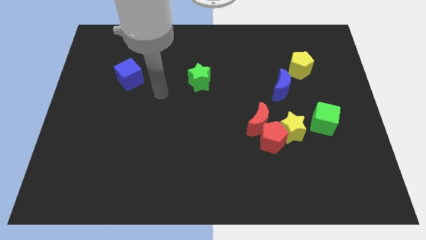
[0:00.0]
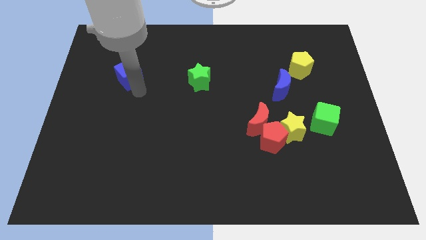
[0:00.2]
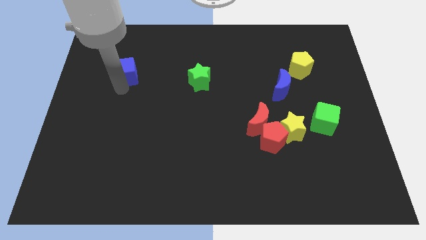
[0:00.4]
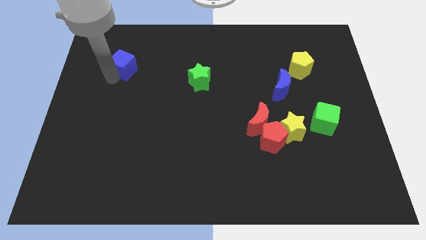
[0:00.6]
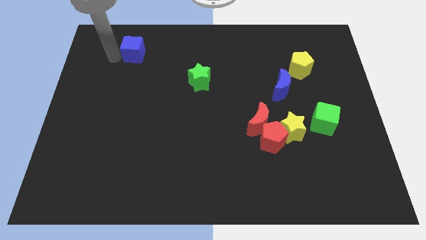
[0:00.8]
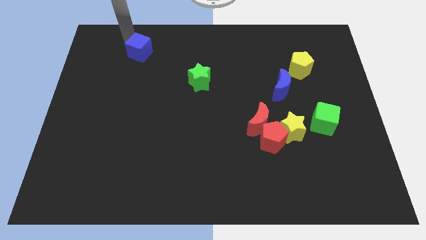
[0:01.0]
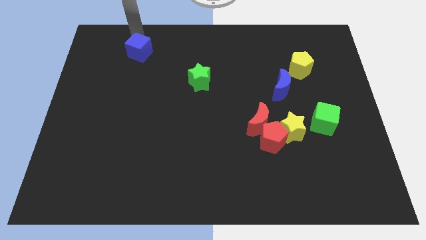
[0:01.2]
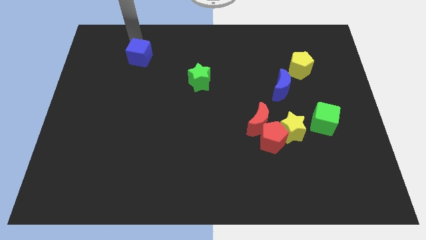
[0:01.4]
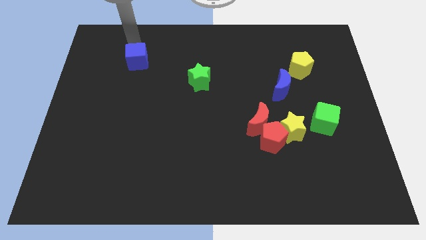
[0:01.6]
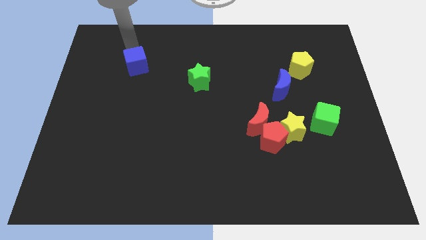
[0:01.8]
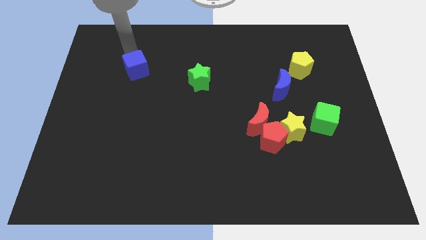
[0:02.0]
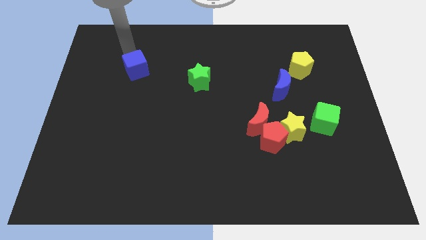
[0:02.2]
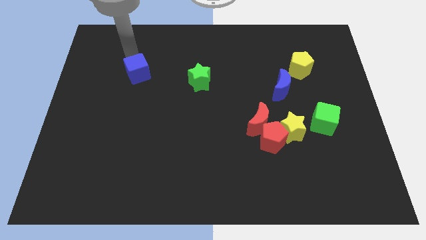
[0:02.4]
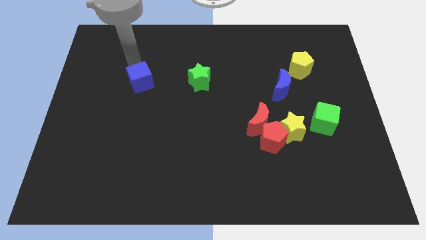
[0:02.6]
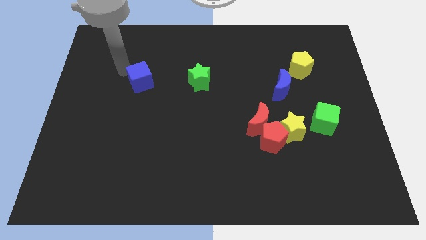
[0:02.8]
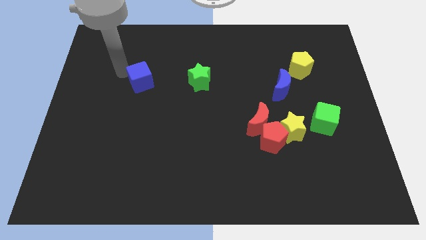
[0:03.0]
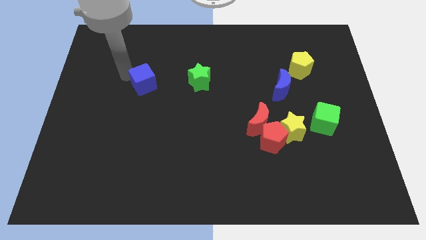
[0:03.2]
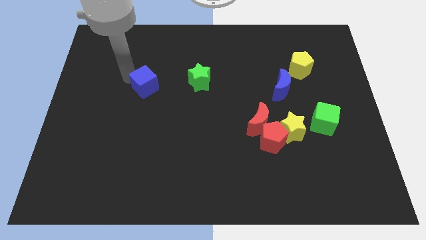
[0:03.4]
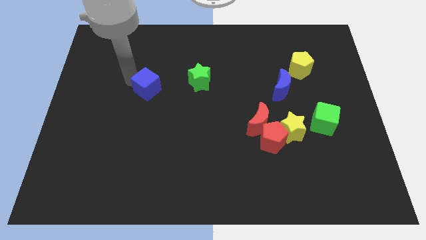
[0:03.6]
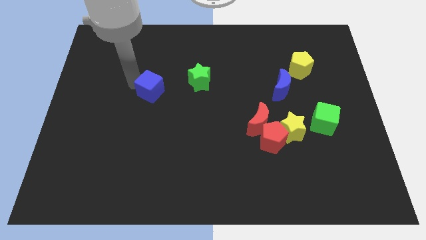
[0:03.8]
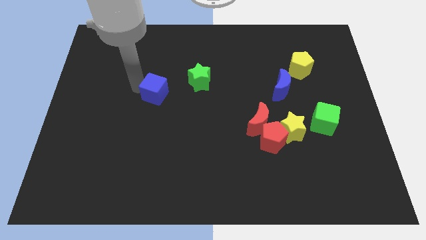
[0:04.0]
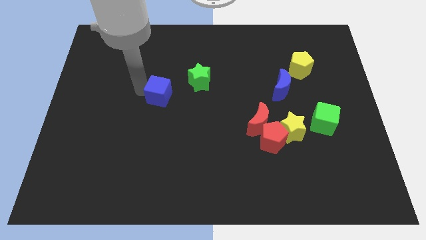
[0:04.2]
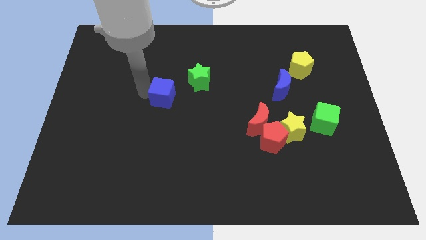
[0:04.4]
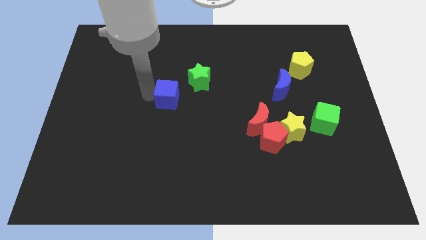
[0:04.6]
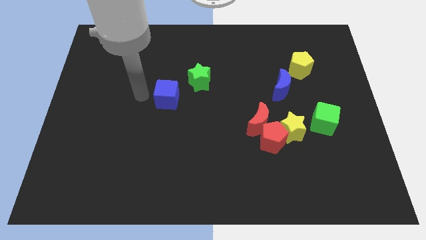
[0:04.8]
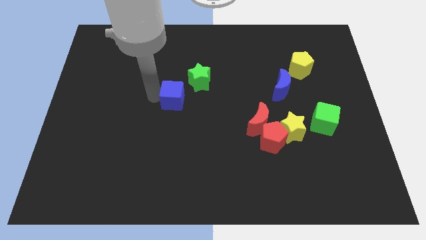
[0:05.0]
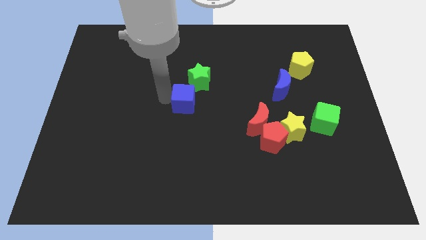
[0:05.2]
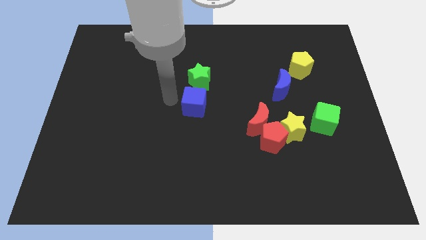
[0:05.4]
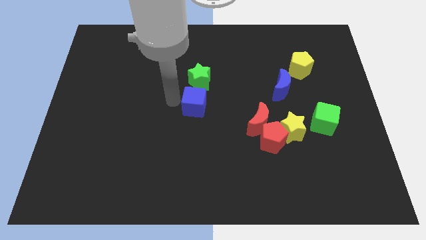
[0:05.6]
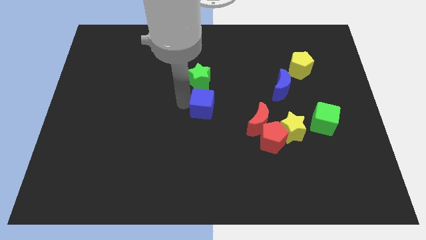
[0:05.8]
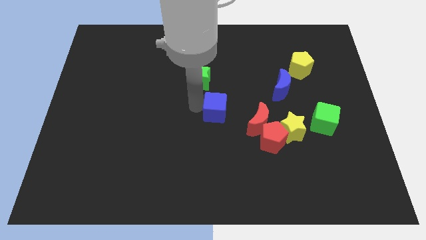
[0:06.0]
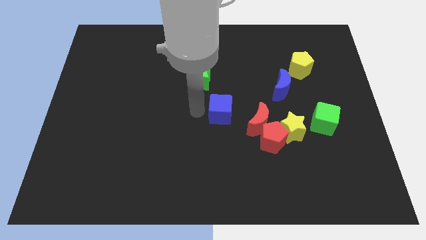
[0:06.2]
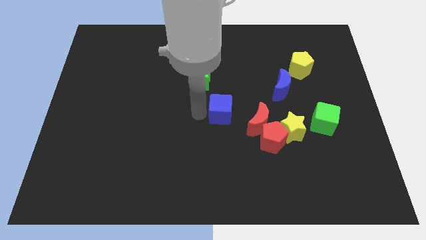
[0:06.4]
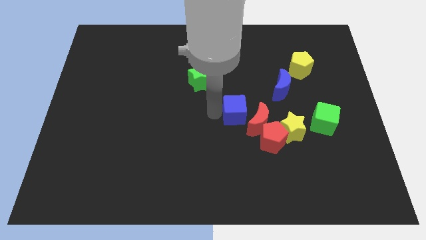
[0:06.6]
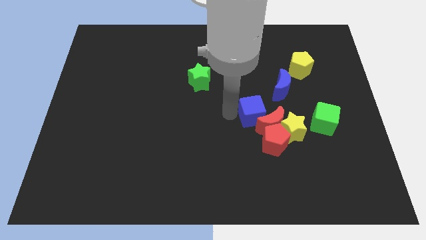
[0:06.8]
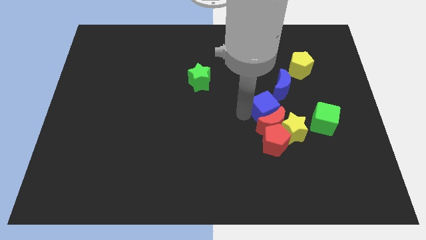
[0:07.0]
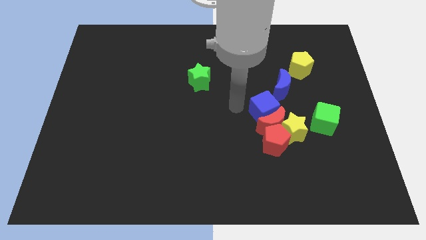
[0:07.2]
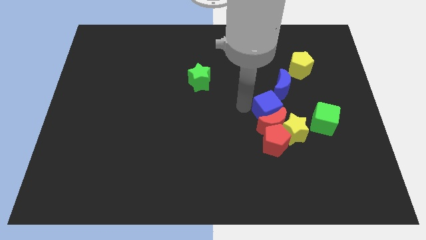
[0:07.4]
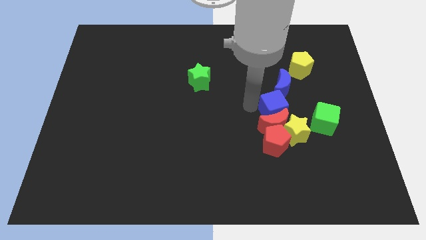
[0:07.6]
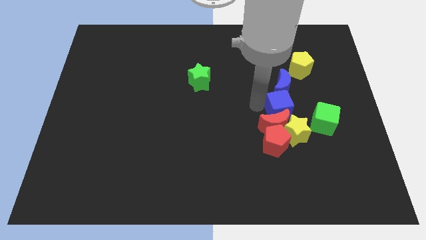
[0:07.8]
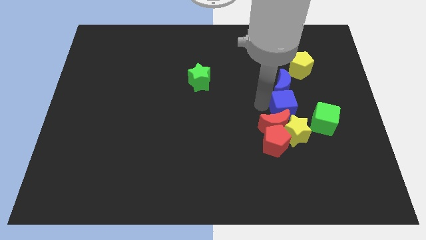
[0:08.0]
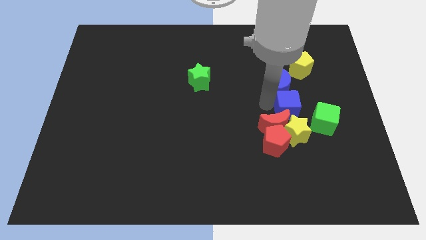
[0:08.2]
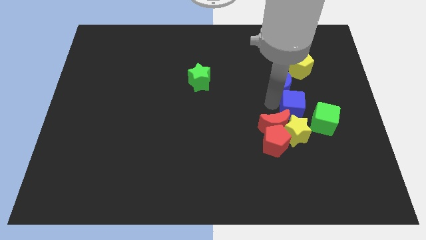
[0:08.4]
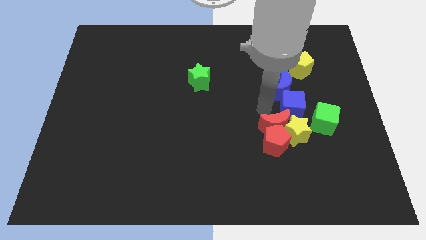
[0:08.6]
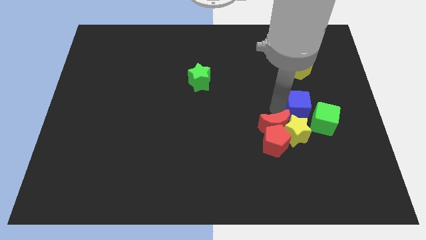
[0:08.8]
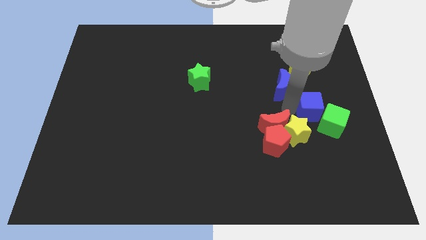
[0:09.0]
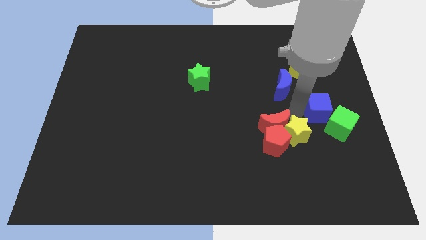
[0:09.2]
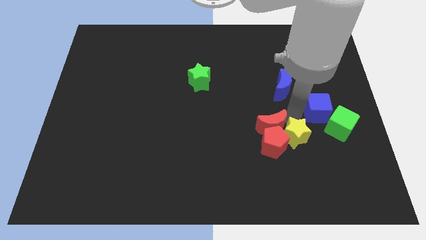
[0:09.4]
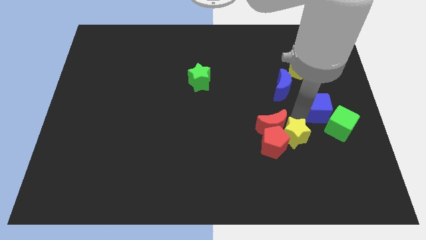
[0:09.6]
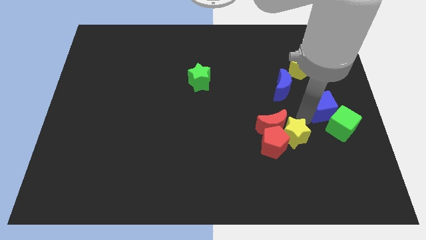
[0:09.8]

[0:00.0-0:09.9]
slide the blue cube to the right side of the board

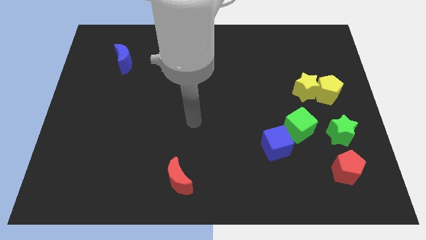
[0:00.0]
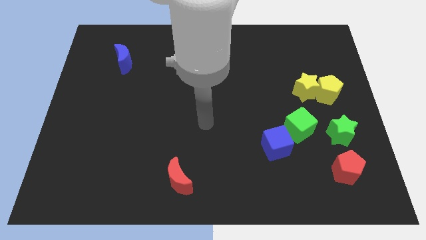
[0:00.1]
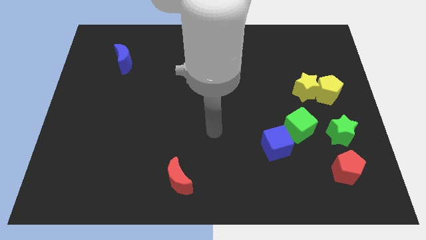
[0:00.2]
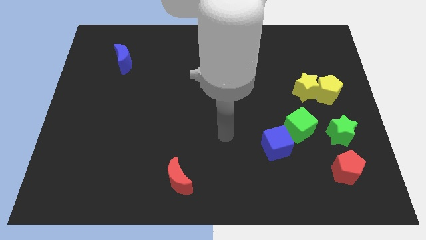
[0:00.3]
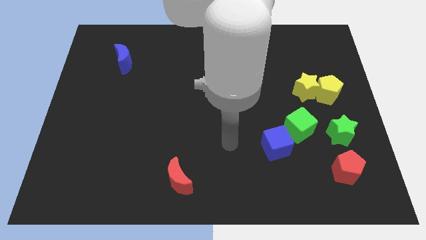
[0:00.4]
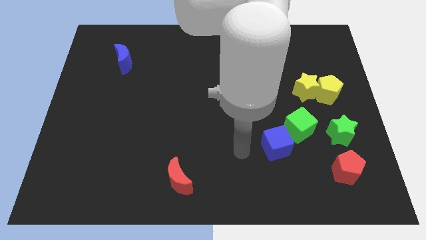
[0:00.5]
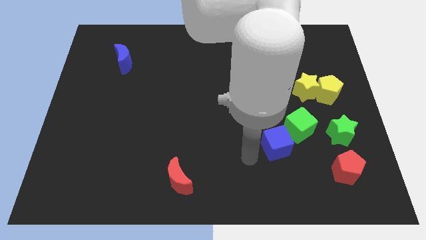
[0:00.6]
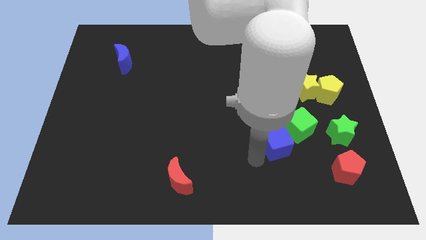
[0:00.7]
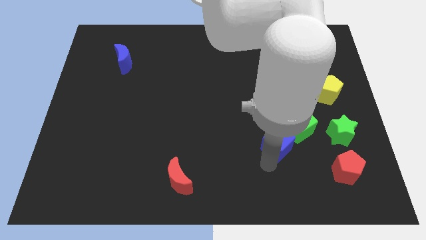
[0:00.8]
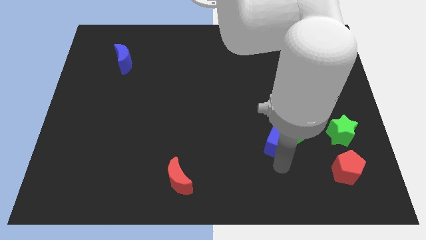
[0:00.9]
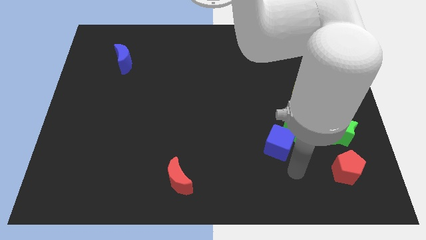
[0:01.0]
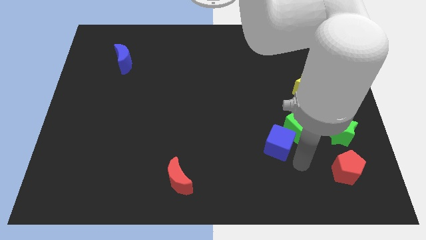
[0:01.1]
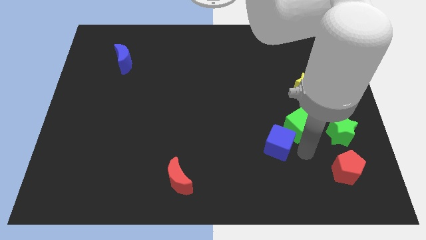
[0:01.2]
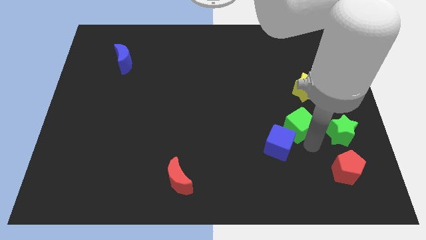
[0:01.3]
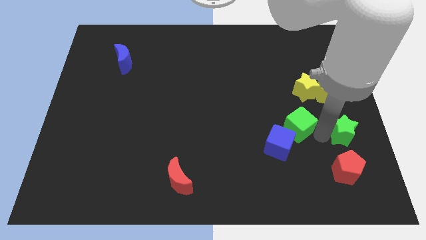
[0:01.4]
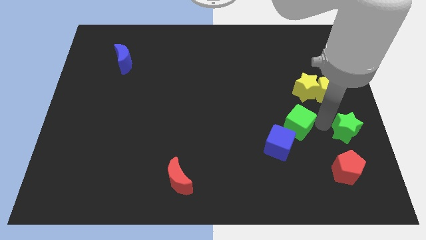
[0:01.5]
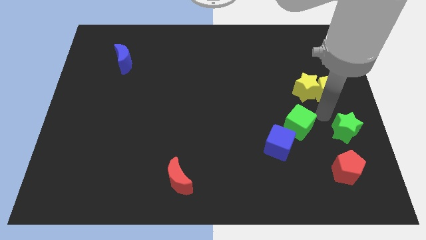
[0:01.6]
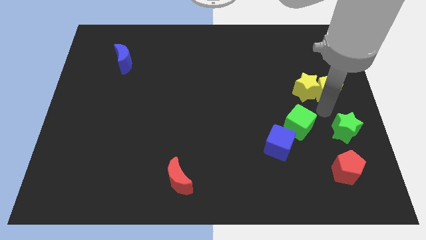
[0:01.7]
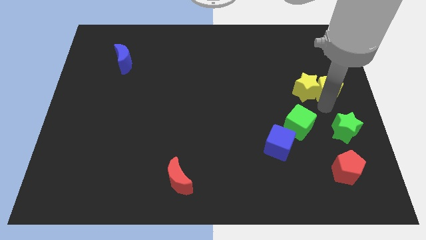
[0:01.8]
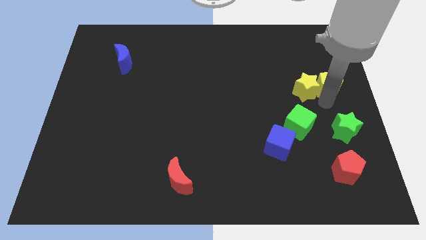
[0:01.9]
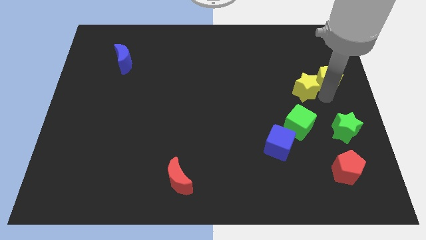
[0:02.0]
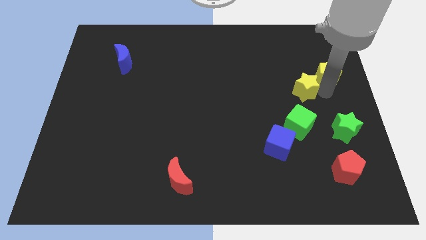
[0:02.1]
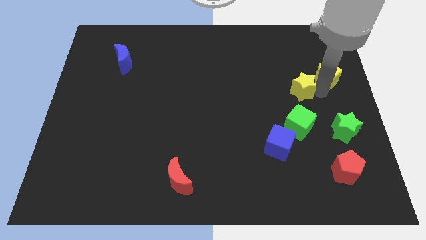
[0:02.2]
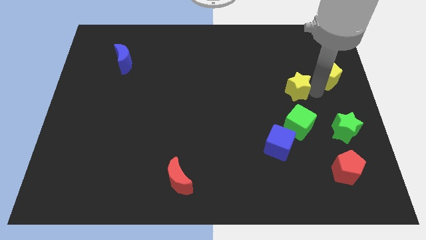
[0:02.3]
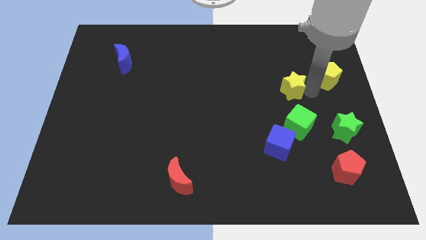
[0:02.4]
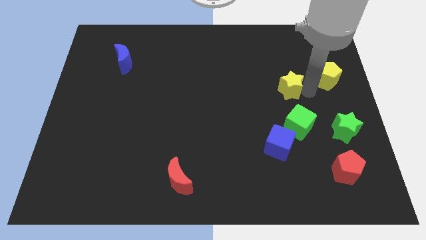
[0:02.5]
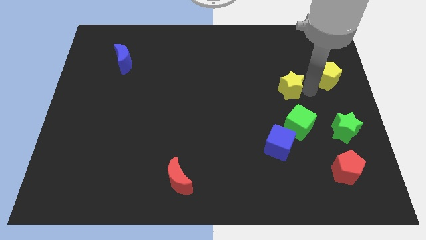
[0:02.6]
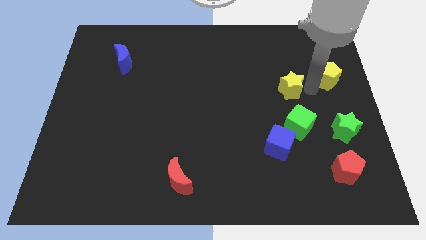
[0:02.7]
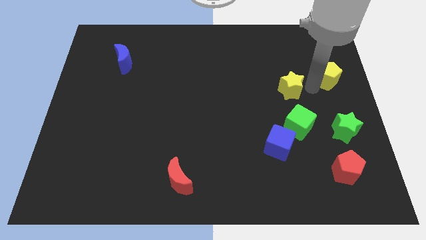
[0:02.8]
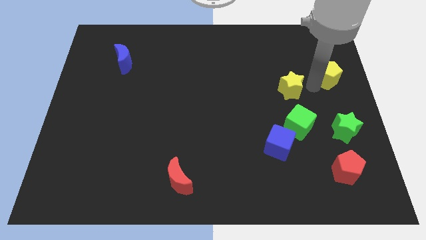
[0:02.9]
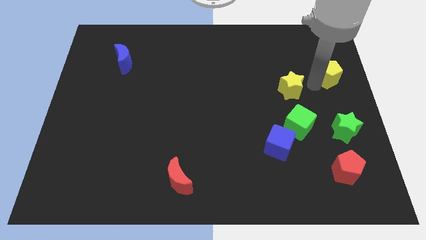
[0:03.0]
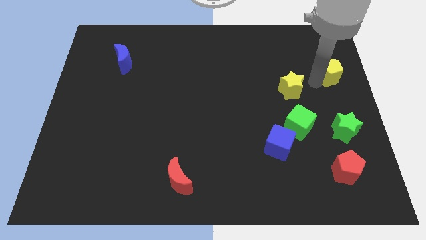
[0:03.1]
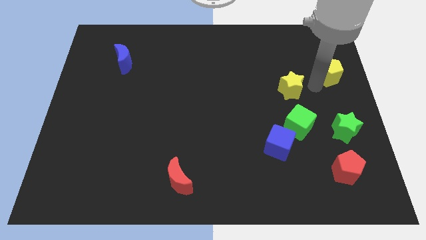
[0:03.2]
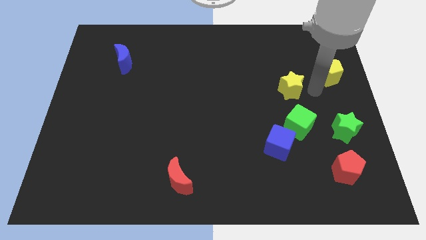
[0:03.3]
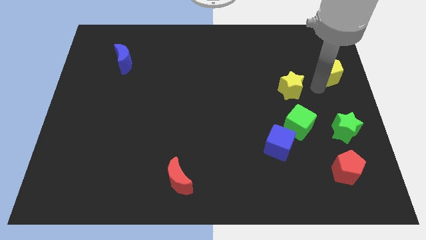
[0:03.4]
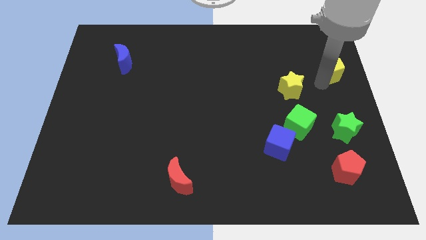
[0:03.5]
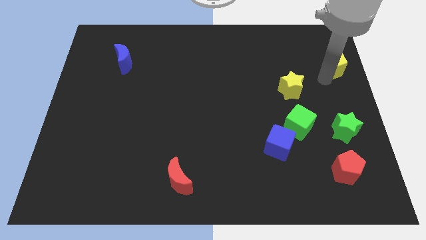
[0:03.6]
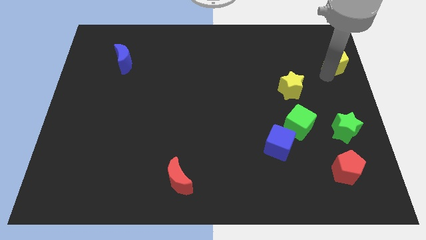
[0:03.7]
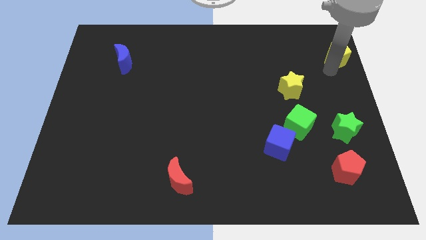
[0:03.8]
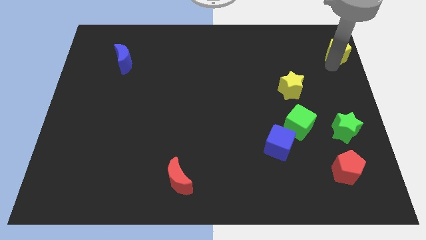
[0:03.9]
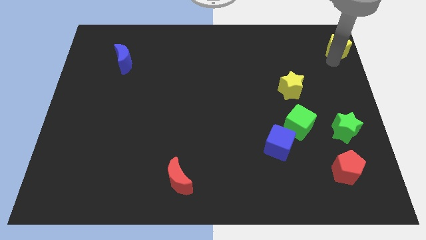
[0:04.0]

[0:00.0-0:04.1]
slide the yellow pentagon to the top right of the board
